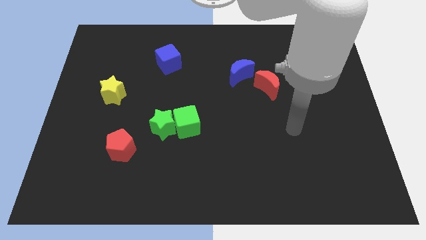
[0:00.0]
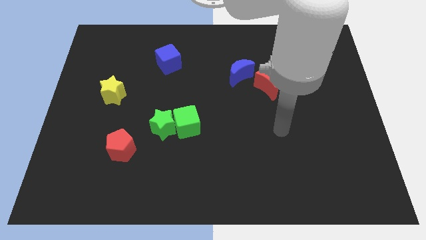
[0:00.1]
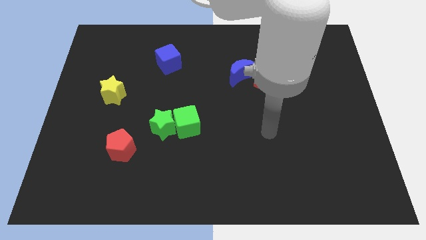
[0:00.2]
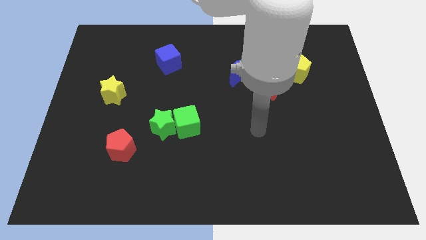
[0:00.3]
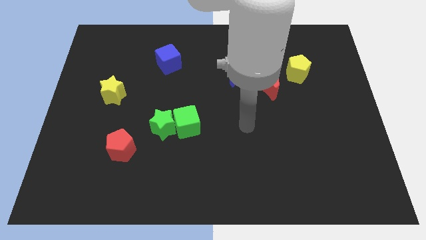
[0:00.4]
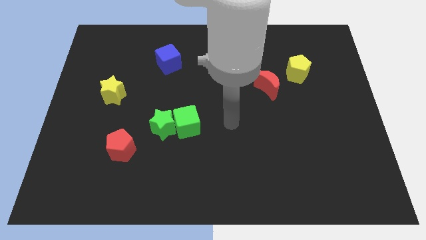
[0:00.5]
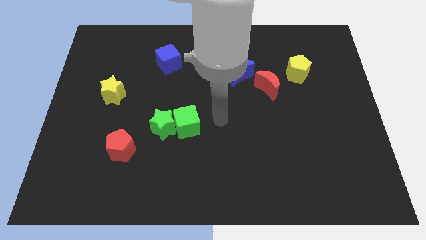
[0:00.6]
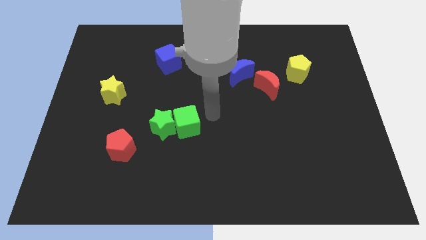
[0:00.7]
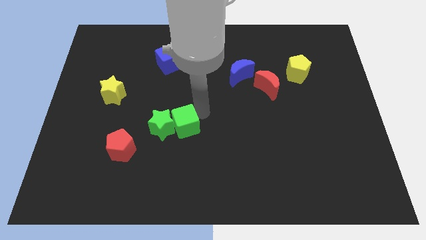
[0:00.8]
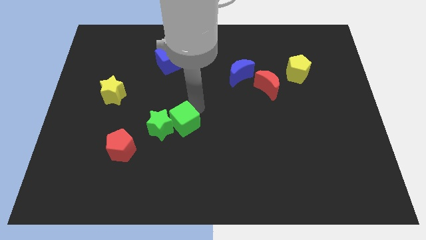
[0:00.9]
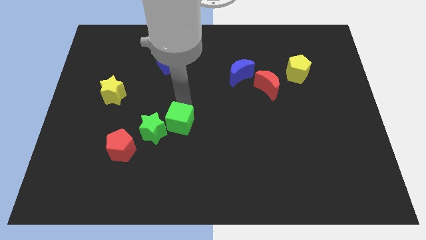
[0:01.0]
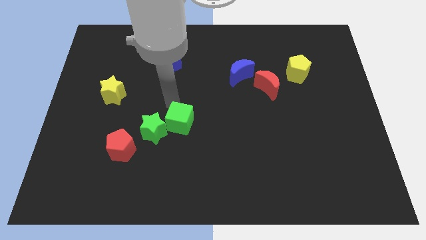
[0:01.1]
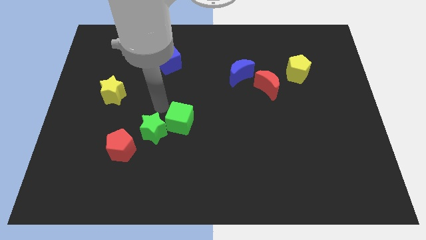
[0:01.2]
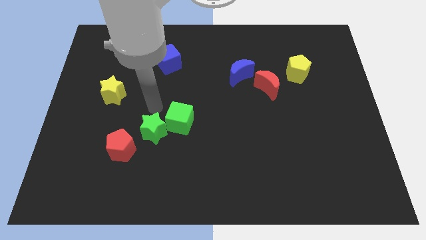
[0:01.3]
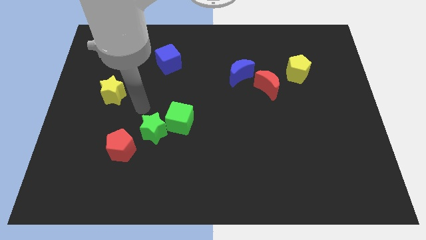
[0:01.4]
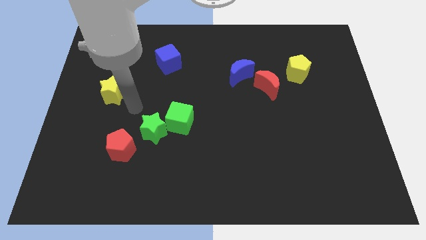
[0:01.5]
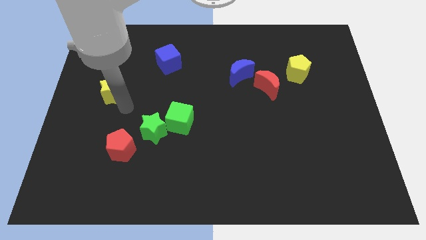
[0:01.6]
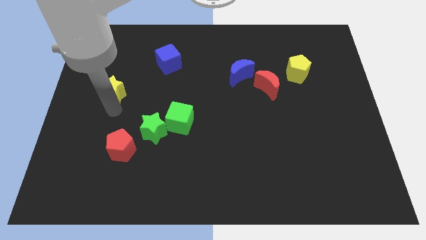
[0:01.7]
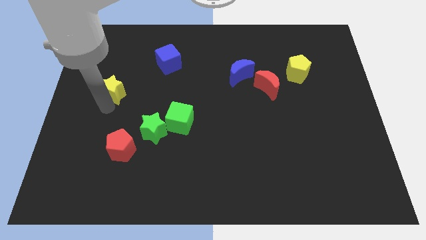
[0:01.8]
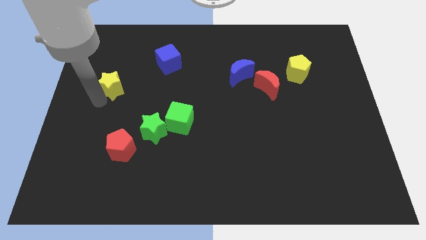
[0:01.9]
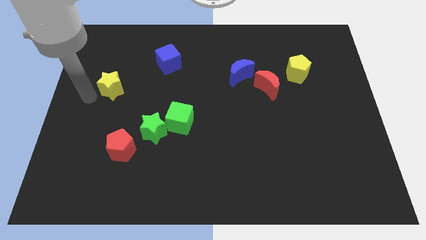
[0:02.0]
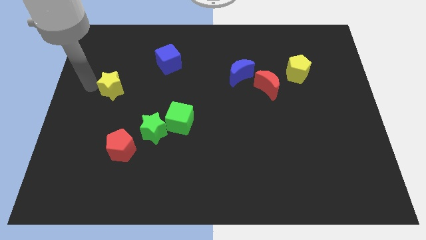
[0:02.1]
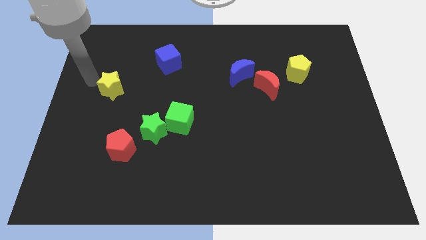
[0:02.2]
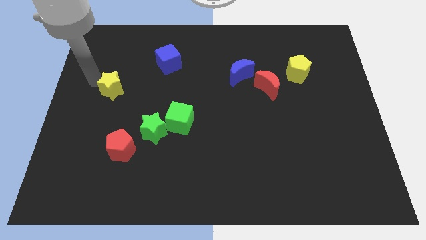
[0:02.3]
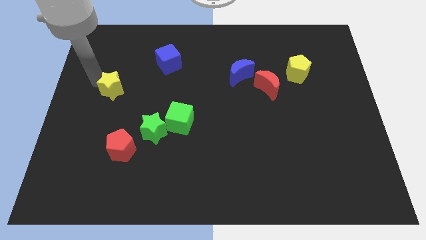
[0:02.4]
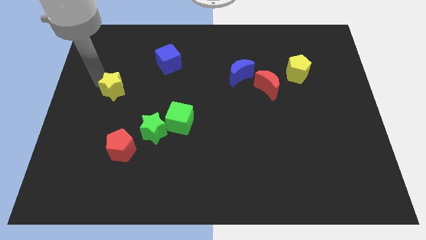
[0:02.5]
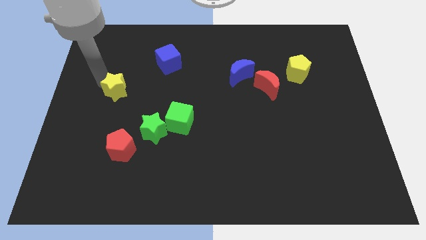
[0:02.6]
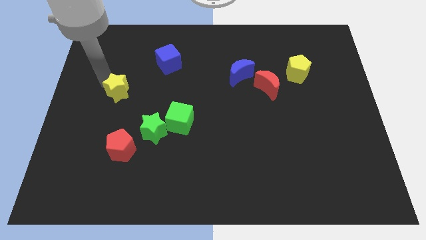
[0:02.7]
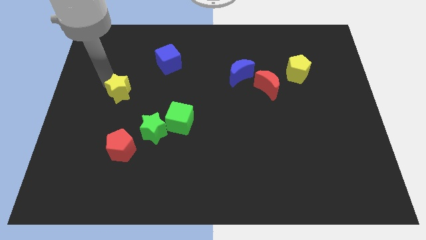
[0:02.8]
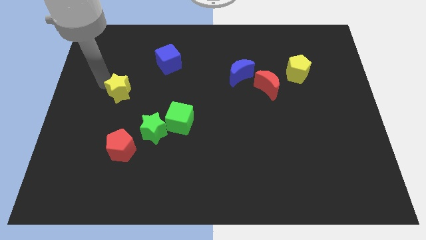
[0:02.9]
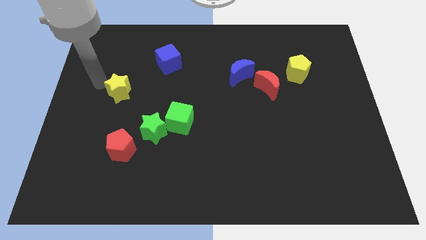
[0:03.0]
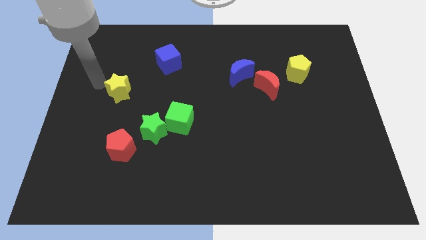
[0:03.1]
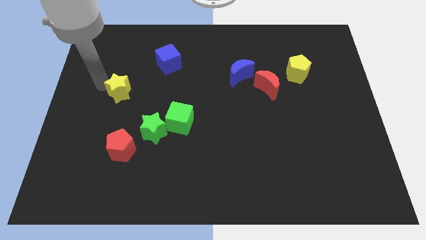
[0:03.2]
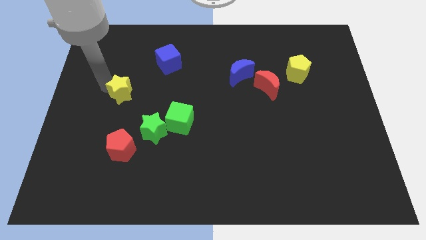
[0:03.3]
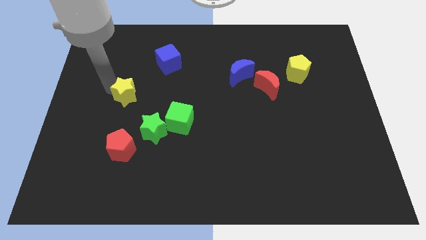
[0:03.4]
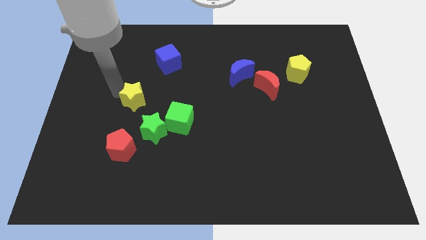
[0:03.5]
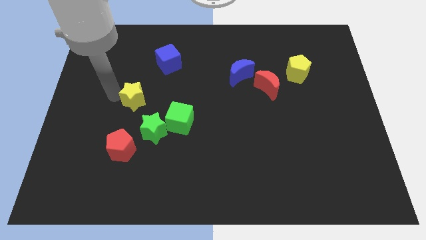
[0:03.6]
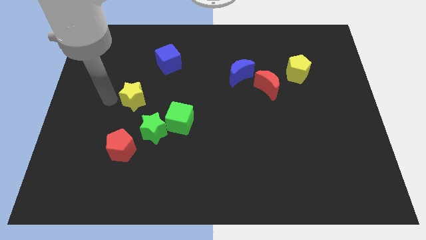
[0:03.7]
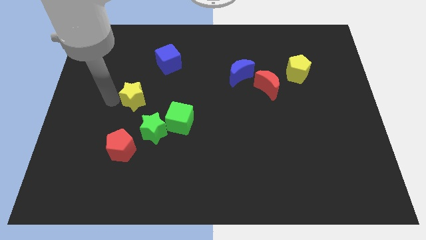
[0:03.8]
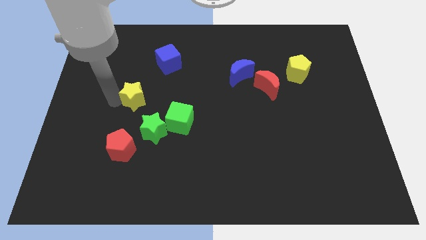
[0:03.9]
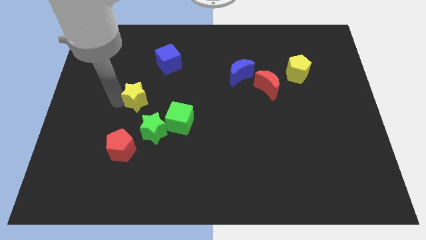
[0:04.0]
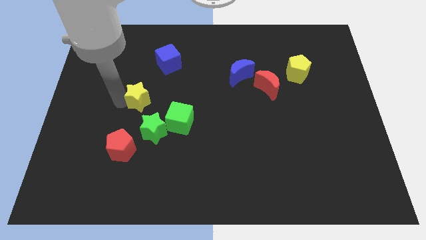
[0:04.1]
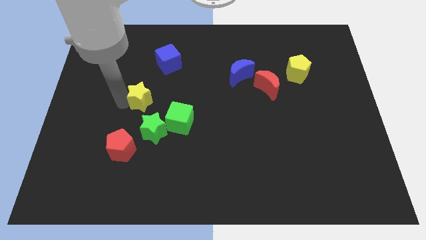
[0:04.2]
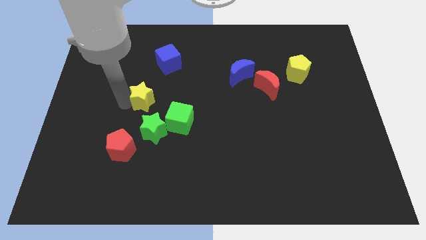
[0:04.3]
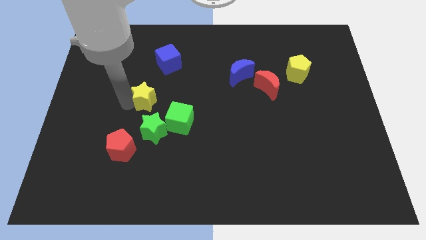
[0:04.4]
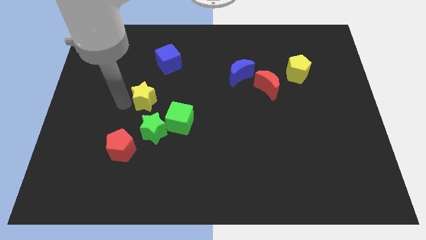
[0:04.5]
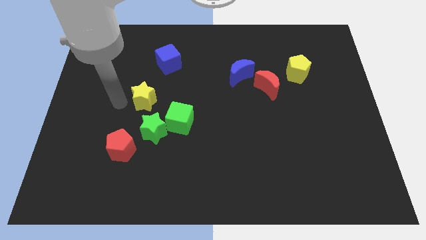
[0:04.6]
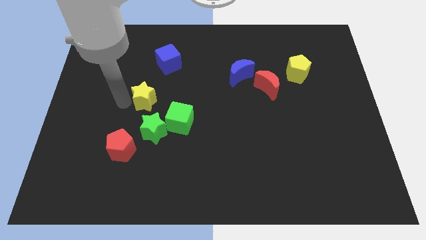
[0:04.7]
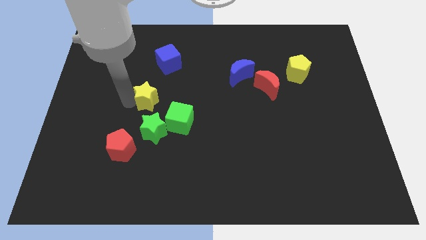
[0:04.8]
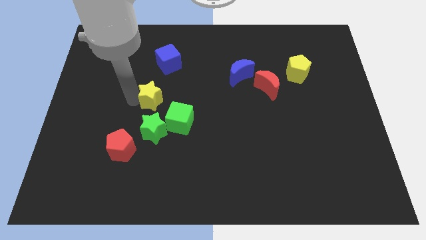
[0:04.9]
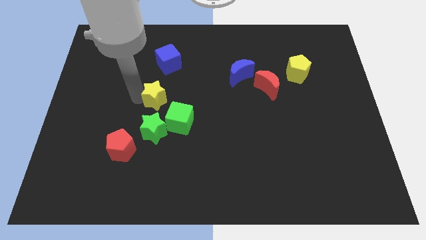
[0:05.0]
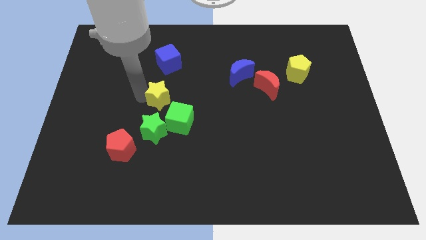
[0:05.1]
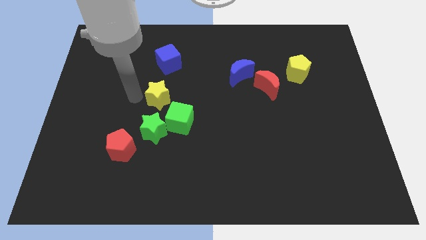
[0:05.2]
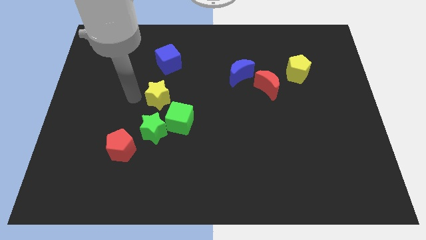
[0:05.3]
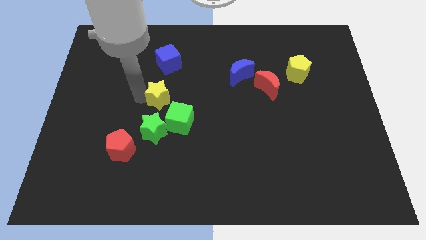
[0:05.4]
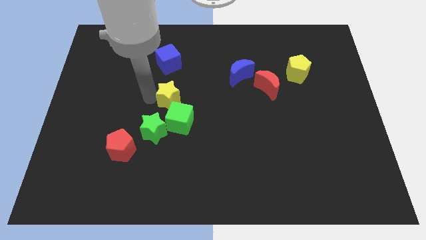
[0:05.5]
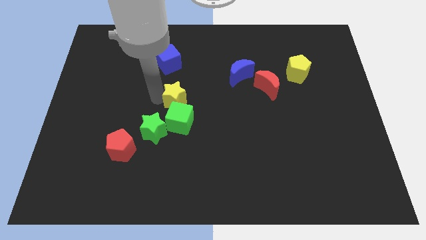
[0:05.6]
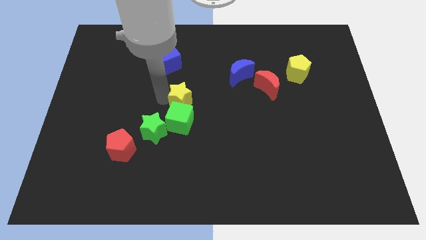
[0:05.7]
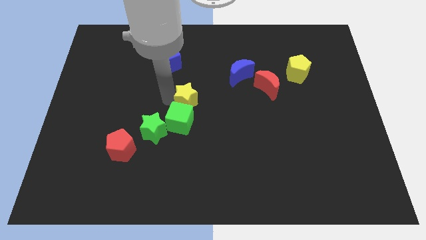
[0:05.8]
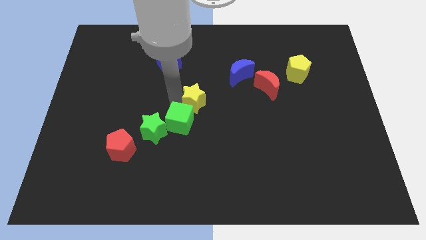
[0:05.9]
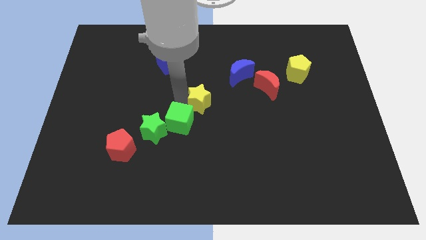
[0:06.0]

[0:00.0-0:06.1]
push the yellow star right

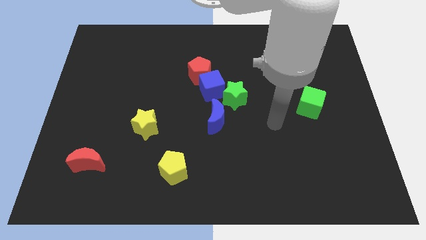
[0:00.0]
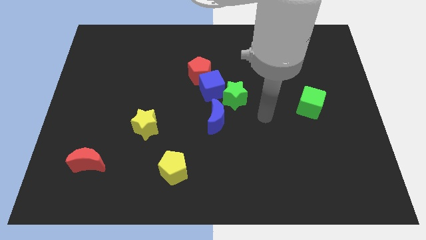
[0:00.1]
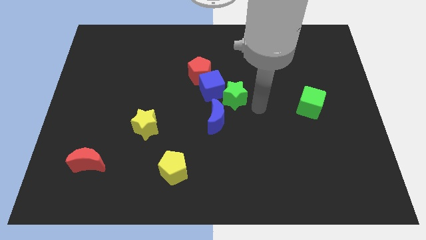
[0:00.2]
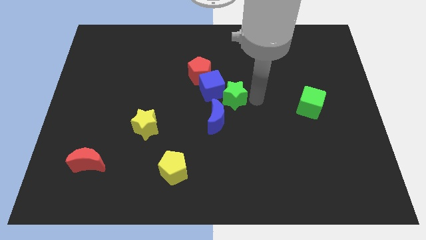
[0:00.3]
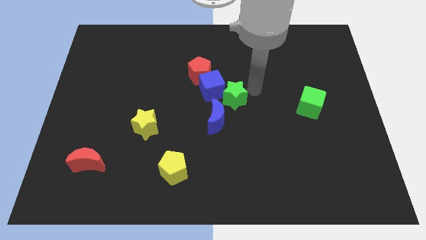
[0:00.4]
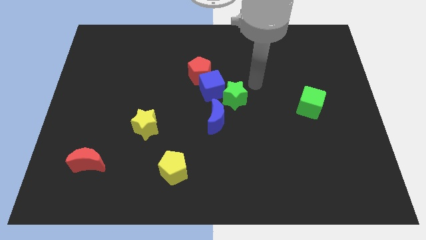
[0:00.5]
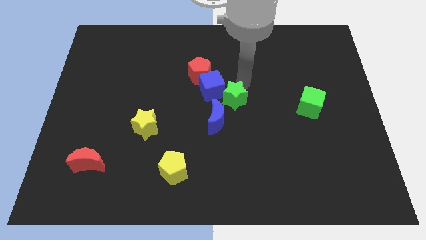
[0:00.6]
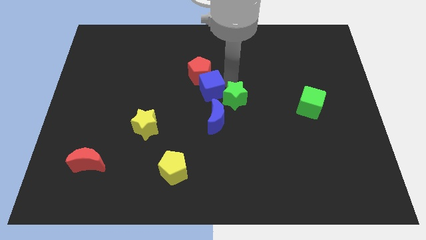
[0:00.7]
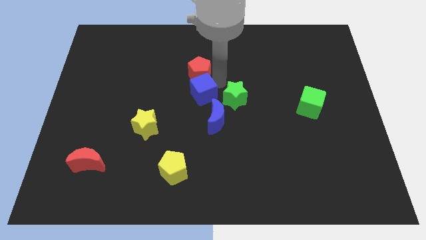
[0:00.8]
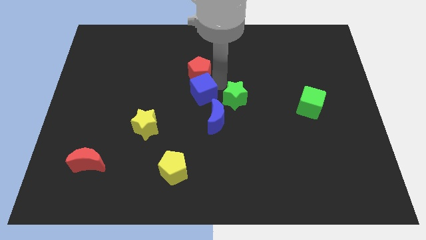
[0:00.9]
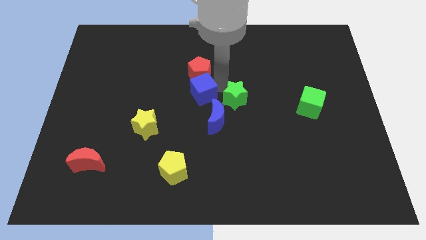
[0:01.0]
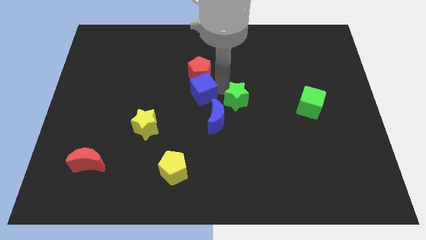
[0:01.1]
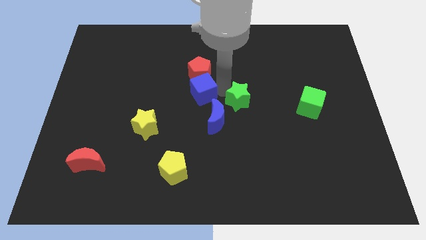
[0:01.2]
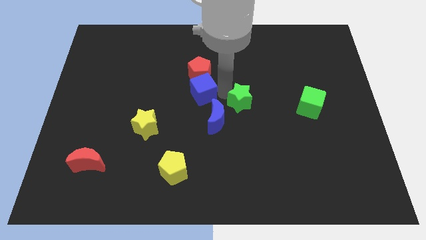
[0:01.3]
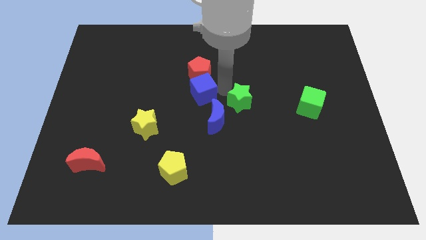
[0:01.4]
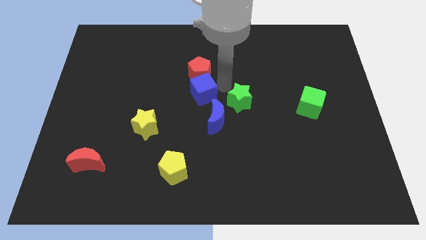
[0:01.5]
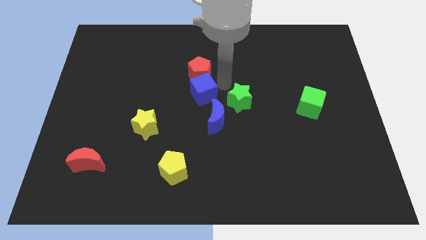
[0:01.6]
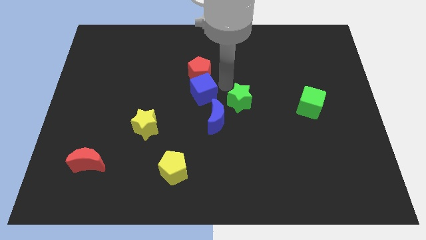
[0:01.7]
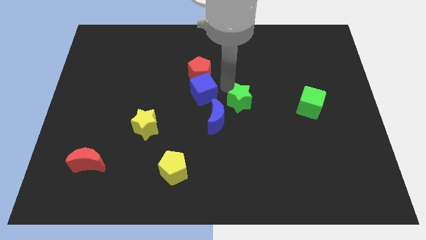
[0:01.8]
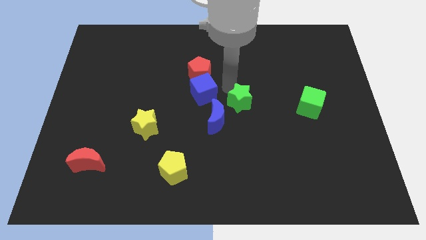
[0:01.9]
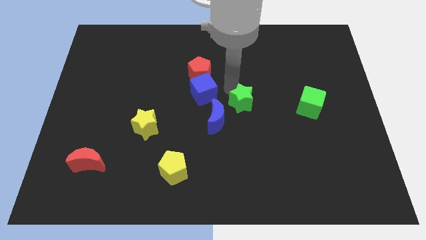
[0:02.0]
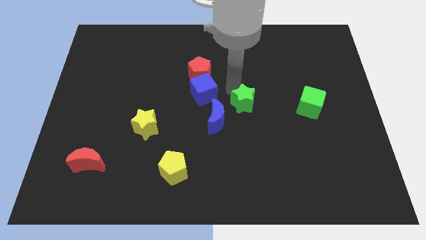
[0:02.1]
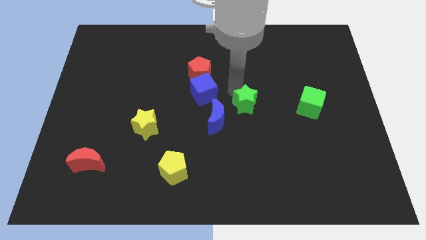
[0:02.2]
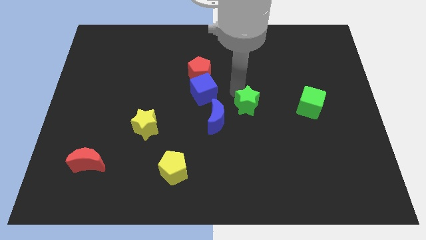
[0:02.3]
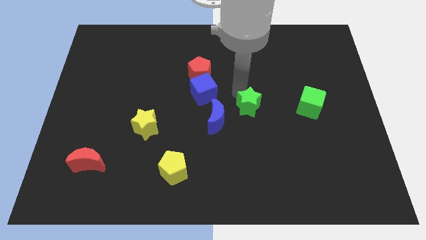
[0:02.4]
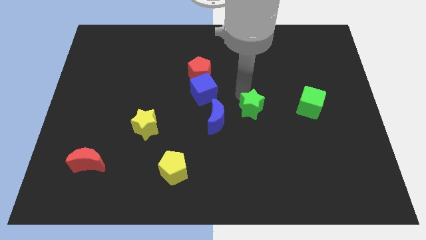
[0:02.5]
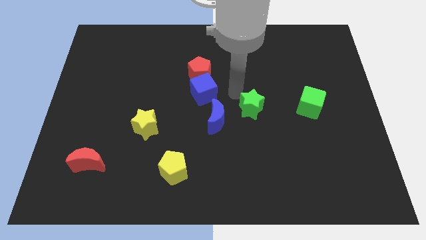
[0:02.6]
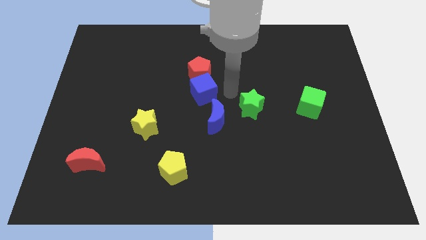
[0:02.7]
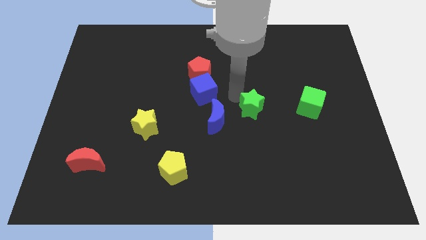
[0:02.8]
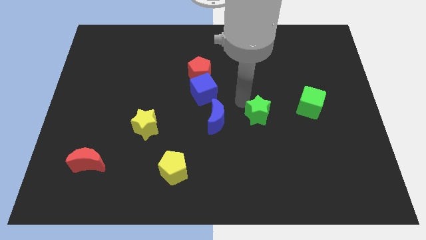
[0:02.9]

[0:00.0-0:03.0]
slide the green star somewhat diagonally down and right
